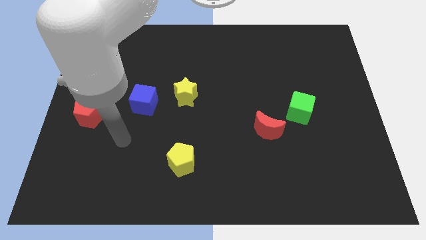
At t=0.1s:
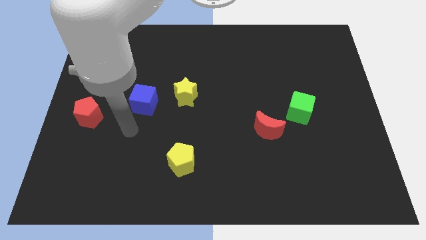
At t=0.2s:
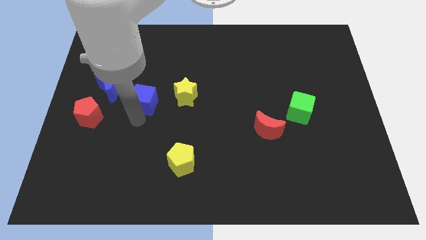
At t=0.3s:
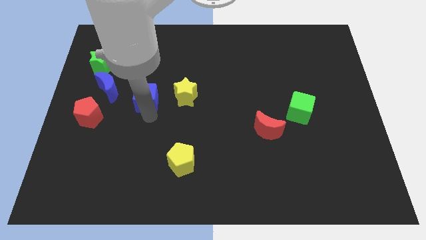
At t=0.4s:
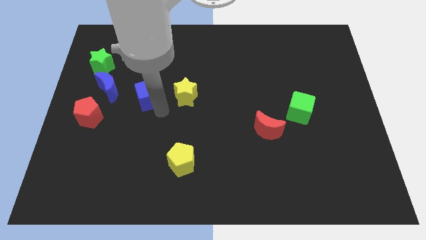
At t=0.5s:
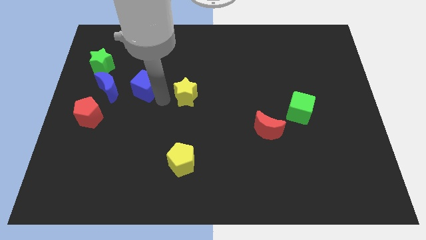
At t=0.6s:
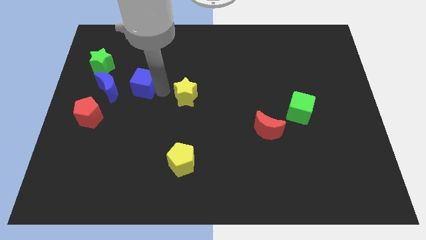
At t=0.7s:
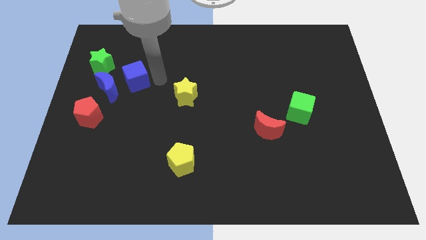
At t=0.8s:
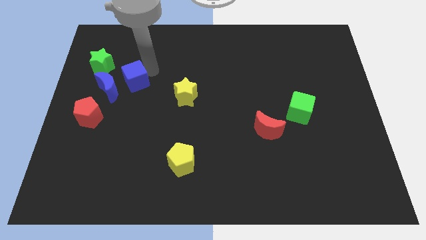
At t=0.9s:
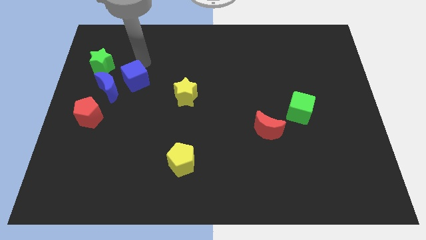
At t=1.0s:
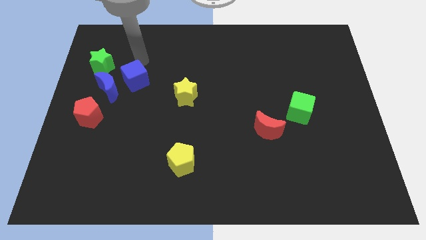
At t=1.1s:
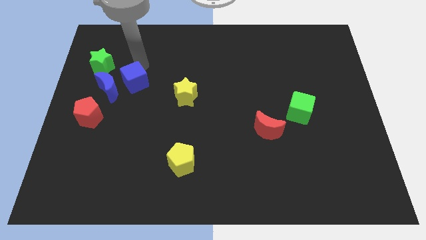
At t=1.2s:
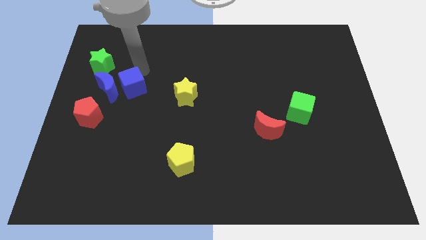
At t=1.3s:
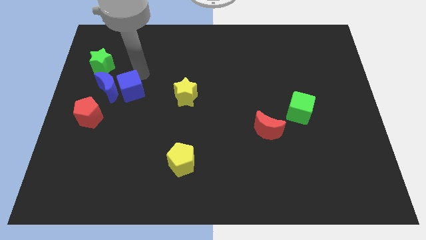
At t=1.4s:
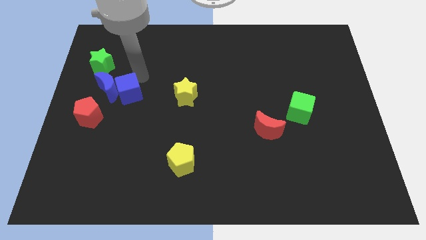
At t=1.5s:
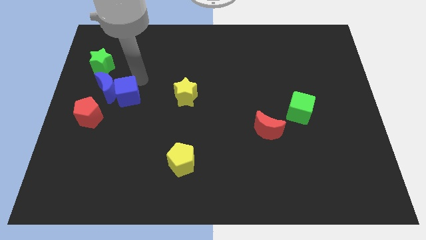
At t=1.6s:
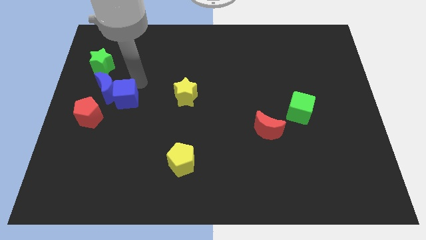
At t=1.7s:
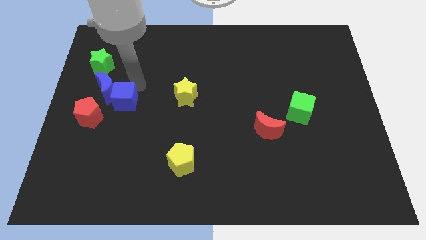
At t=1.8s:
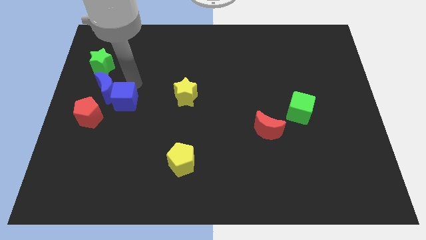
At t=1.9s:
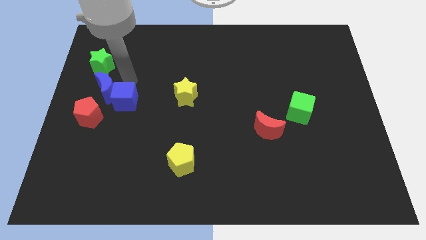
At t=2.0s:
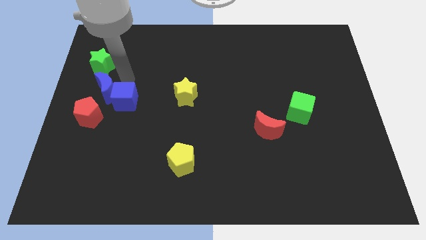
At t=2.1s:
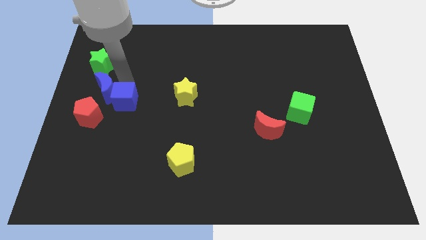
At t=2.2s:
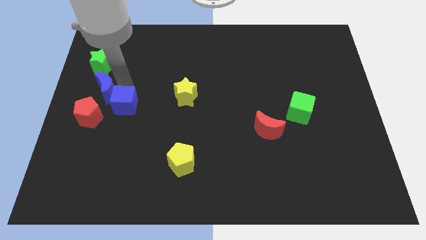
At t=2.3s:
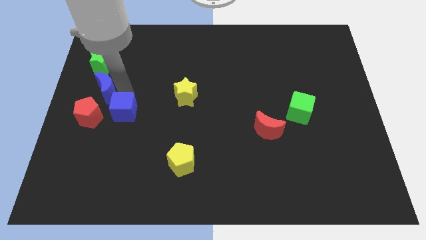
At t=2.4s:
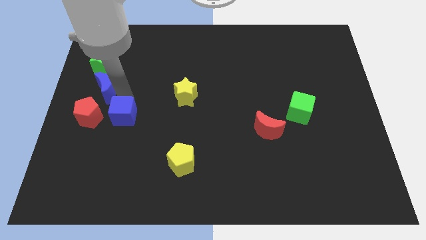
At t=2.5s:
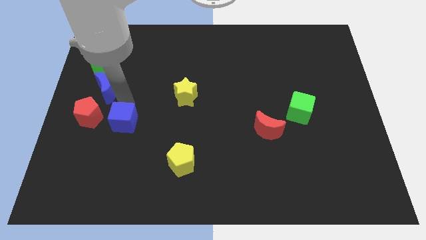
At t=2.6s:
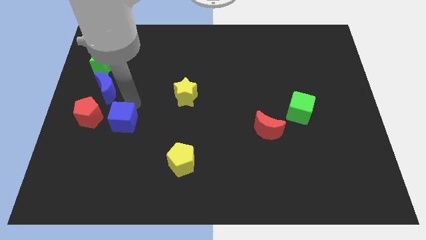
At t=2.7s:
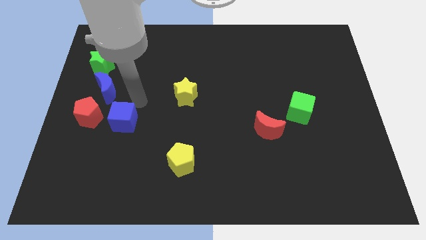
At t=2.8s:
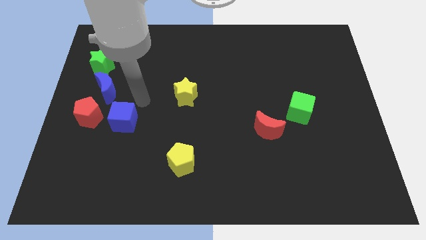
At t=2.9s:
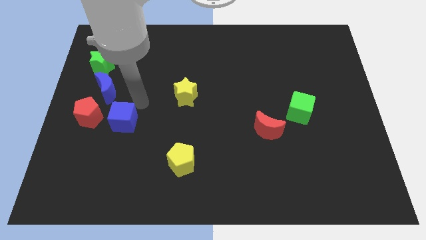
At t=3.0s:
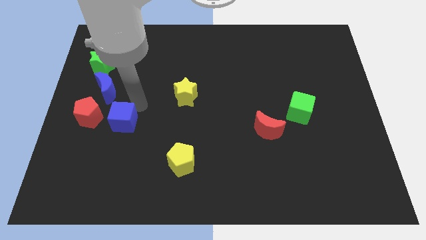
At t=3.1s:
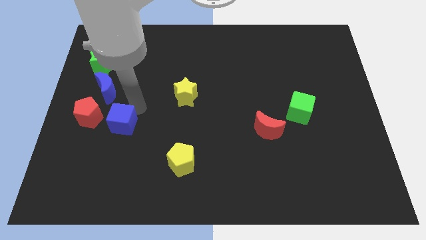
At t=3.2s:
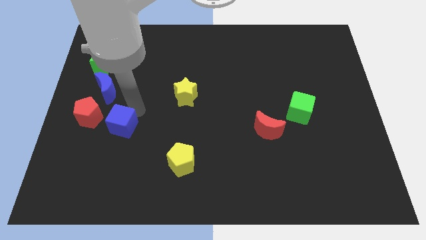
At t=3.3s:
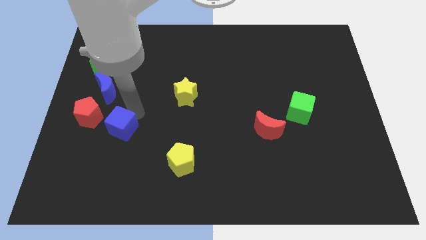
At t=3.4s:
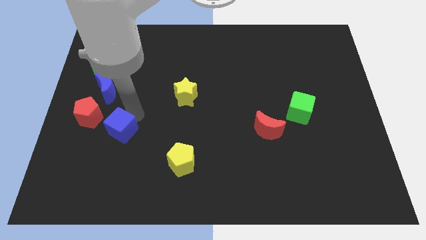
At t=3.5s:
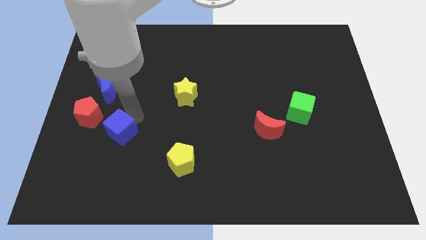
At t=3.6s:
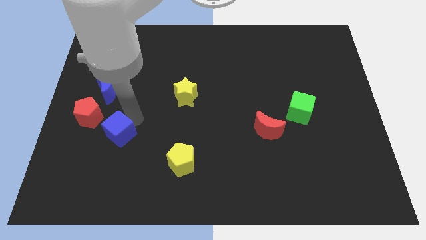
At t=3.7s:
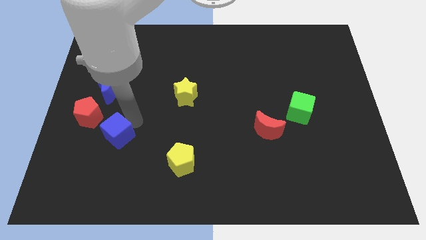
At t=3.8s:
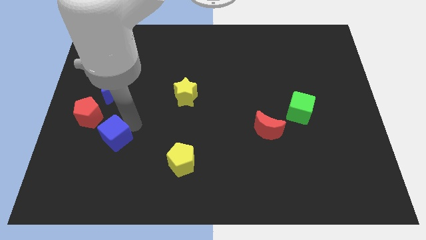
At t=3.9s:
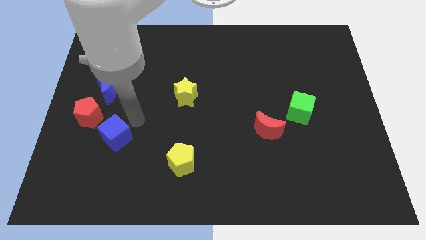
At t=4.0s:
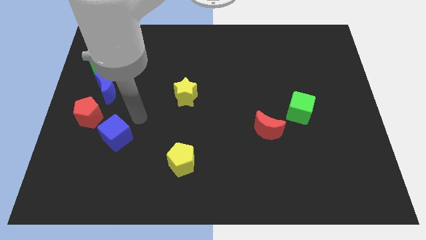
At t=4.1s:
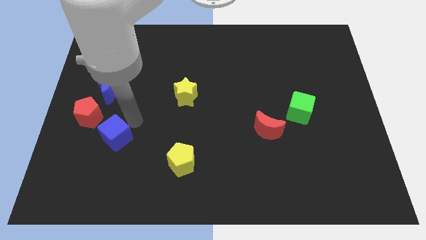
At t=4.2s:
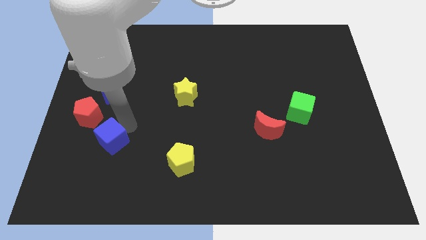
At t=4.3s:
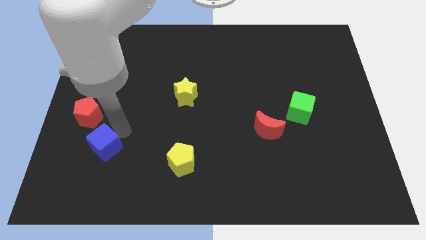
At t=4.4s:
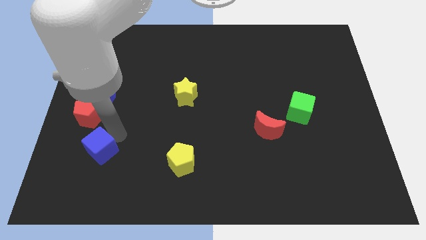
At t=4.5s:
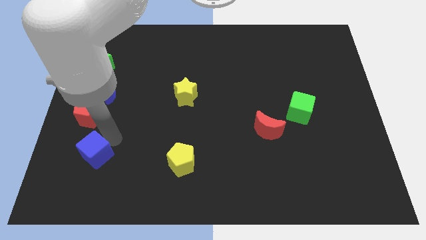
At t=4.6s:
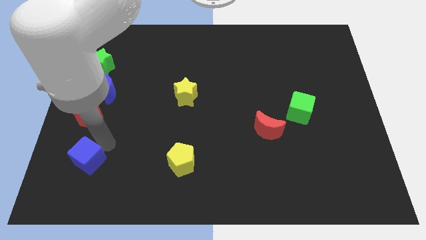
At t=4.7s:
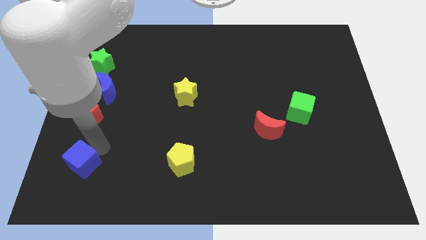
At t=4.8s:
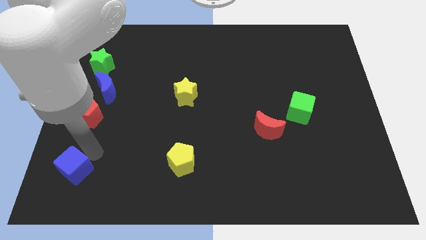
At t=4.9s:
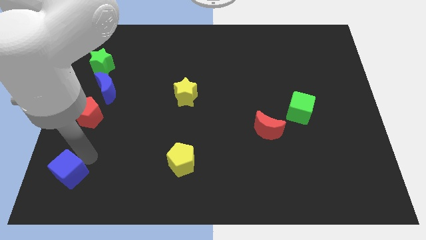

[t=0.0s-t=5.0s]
move the blue cube to the bottom left of the board

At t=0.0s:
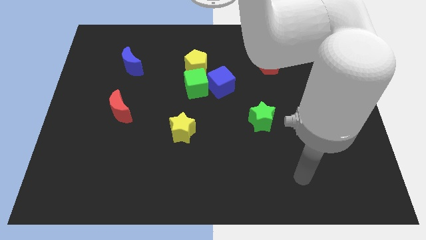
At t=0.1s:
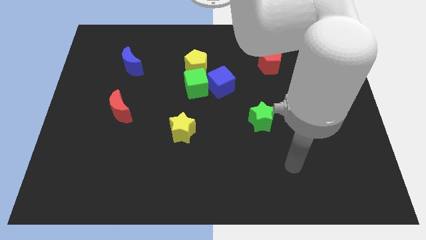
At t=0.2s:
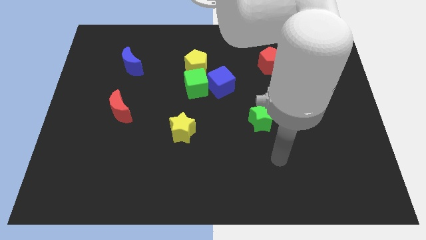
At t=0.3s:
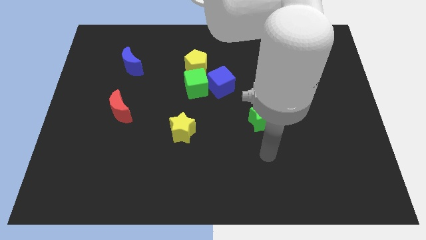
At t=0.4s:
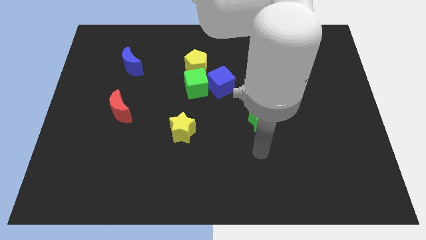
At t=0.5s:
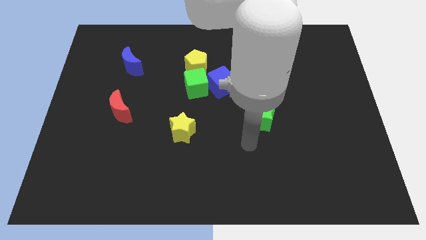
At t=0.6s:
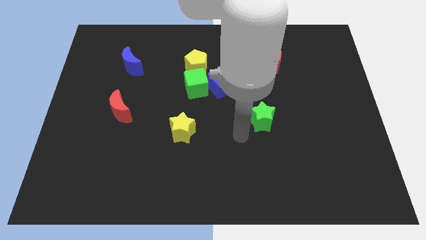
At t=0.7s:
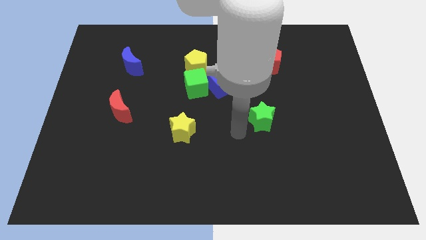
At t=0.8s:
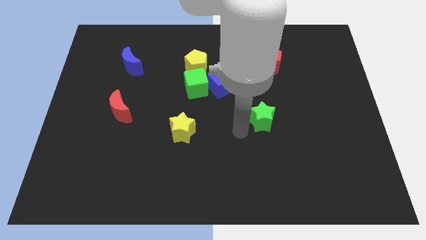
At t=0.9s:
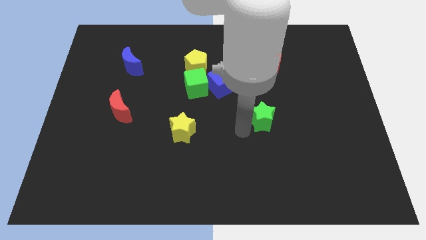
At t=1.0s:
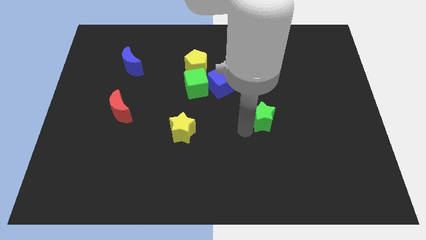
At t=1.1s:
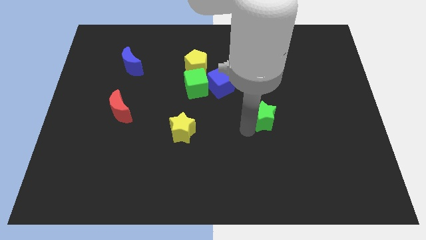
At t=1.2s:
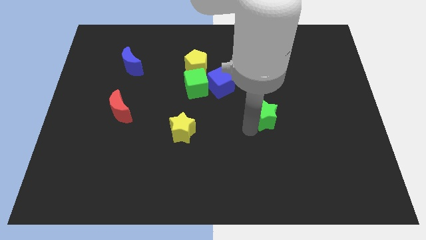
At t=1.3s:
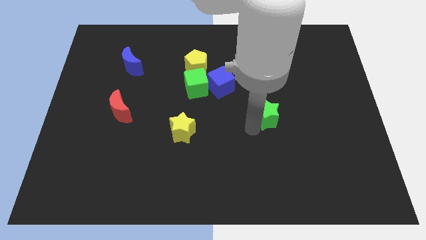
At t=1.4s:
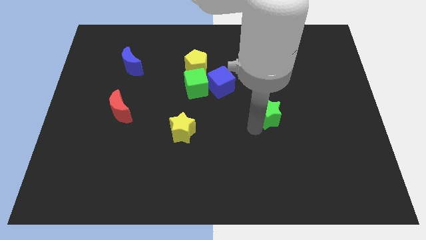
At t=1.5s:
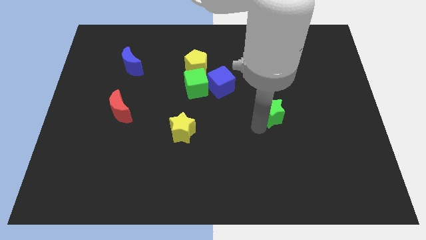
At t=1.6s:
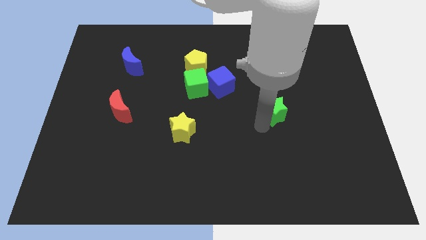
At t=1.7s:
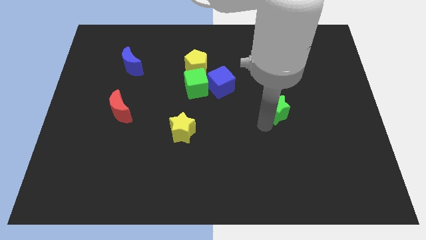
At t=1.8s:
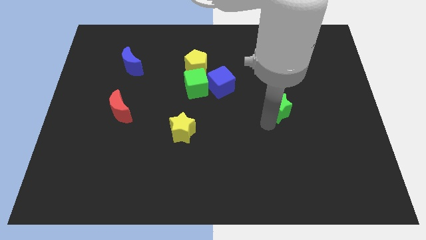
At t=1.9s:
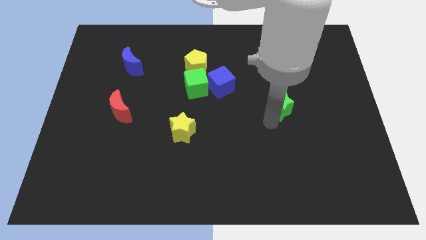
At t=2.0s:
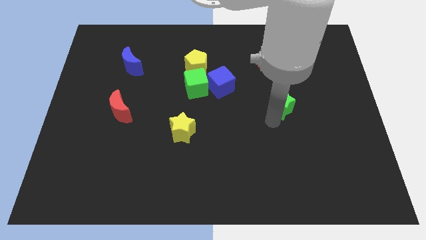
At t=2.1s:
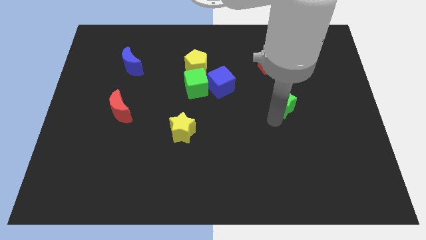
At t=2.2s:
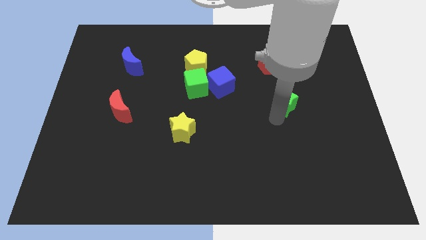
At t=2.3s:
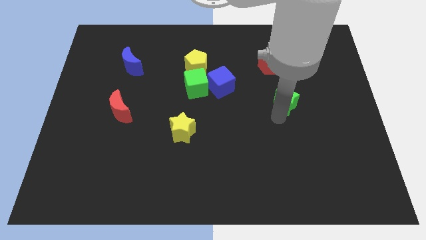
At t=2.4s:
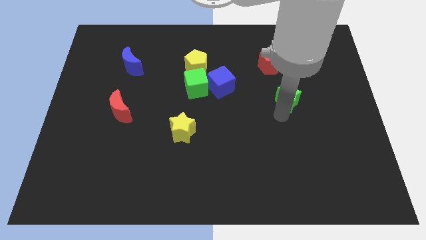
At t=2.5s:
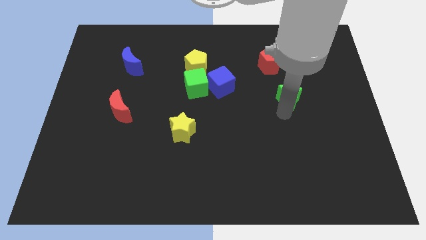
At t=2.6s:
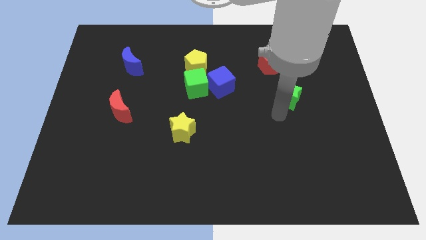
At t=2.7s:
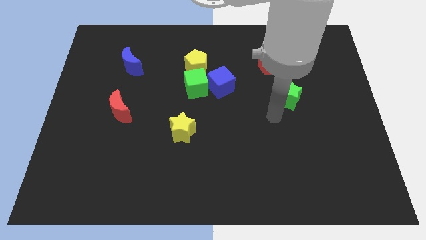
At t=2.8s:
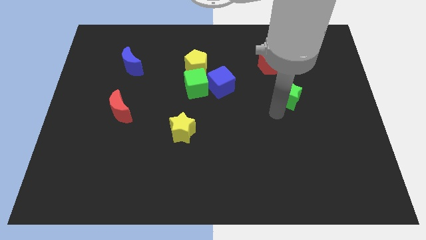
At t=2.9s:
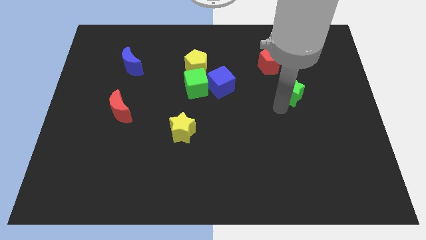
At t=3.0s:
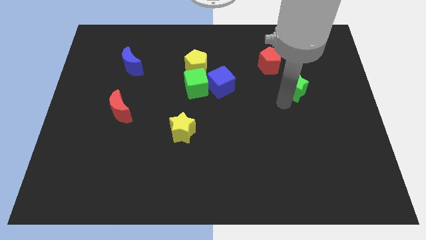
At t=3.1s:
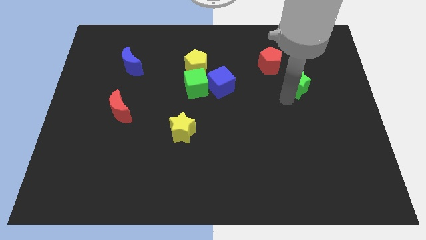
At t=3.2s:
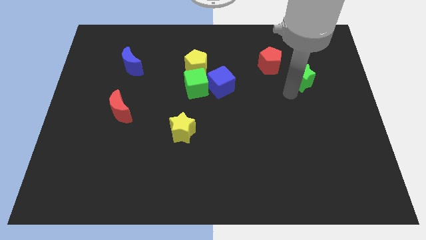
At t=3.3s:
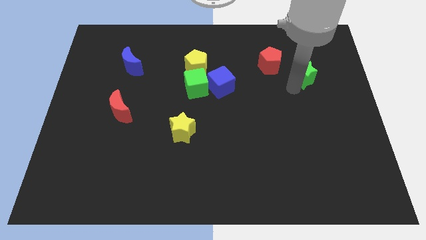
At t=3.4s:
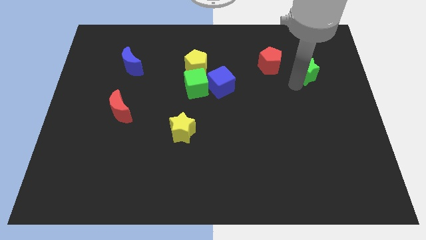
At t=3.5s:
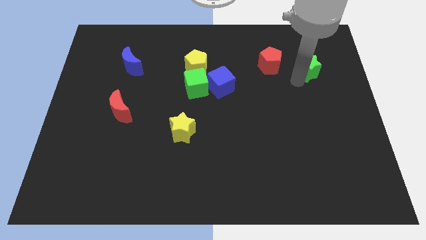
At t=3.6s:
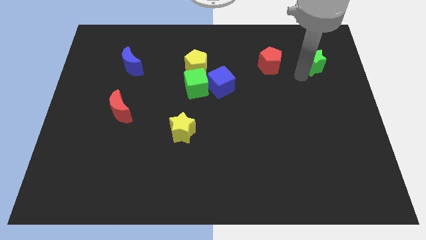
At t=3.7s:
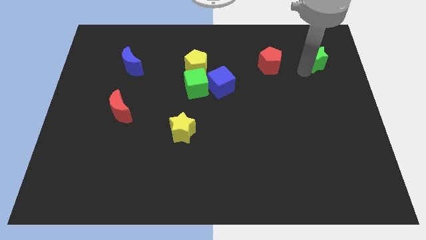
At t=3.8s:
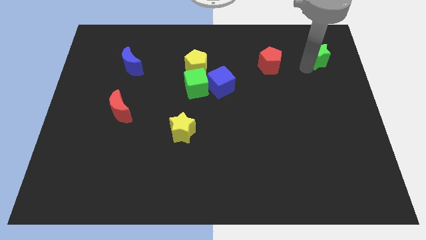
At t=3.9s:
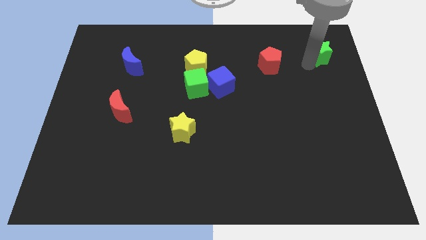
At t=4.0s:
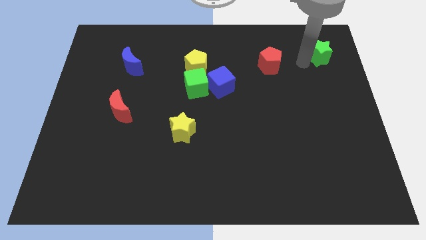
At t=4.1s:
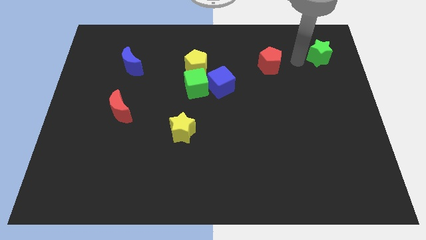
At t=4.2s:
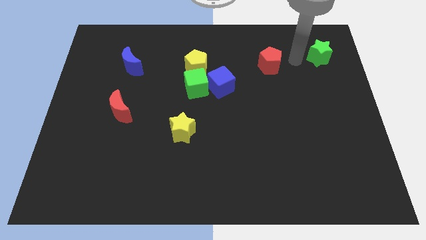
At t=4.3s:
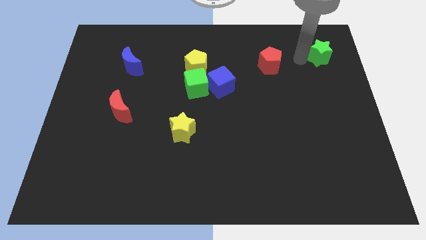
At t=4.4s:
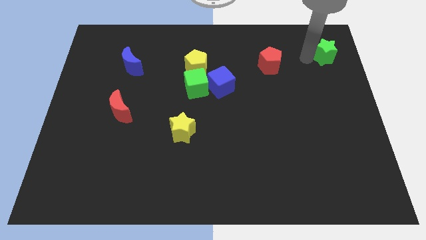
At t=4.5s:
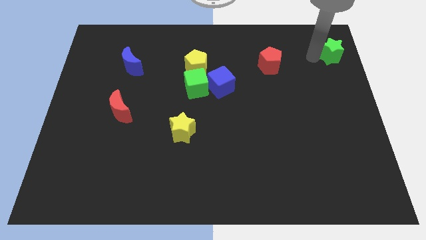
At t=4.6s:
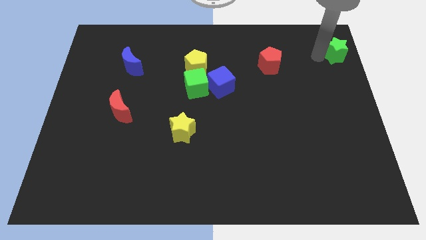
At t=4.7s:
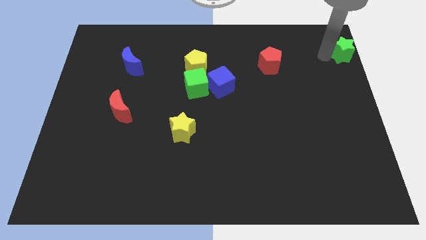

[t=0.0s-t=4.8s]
put the green star to the upper right corner
